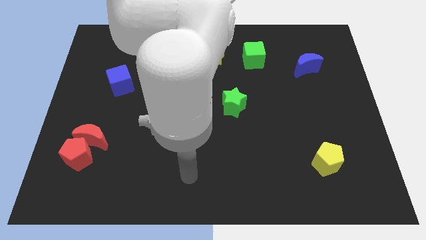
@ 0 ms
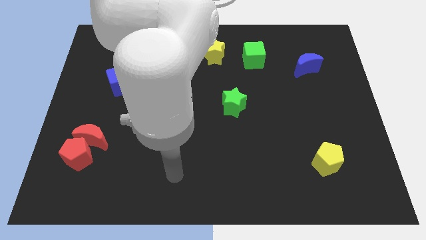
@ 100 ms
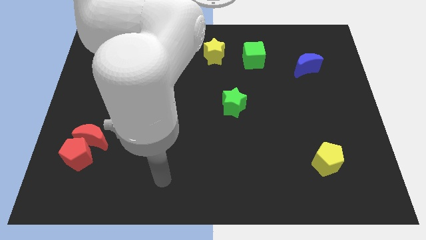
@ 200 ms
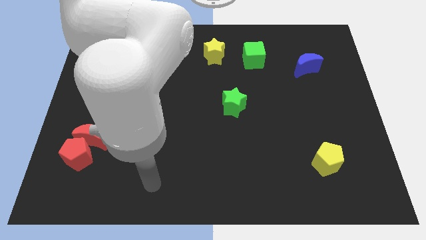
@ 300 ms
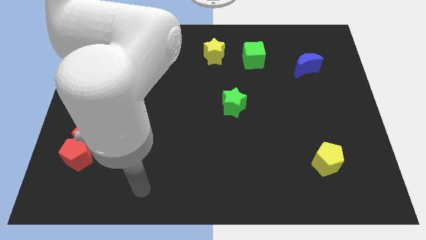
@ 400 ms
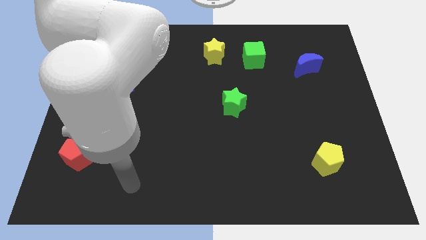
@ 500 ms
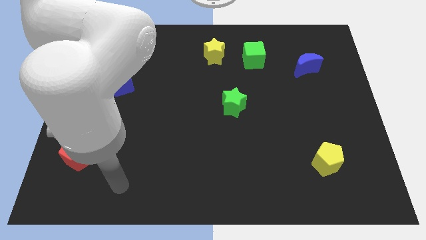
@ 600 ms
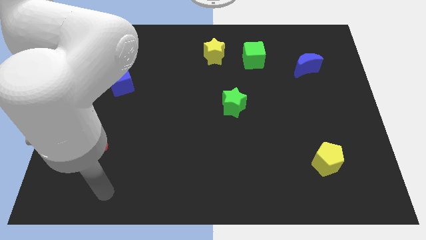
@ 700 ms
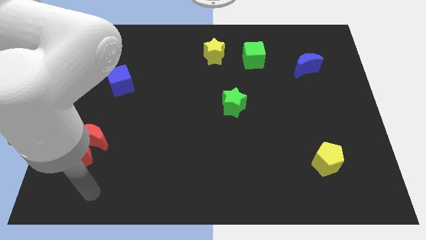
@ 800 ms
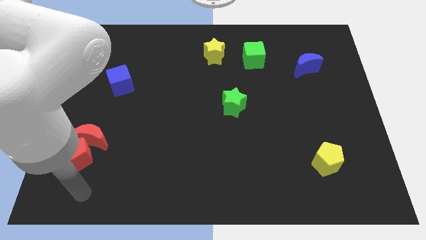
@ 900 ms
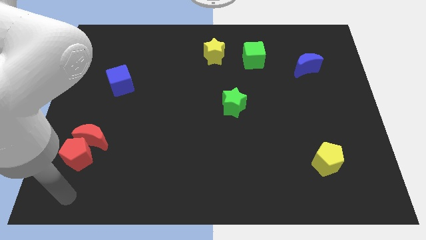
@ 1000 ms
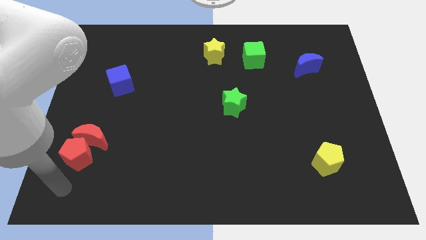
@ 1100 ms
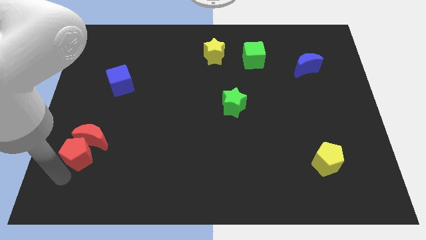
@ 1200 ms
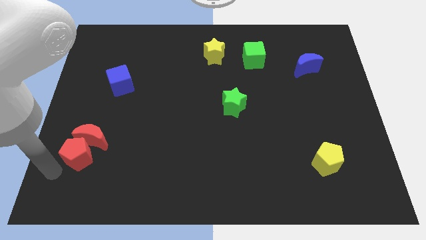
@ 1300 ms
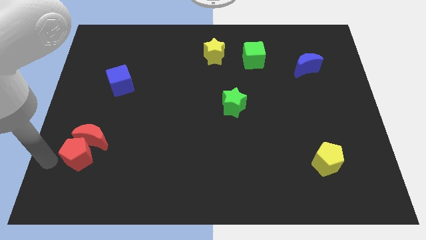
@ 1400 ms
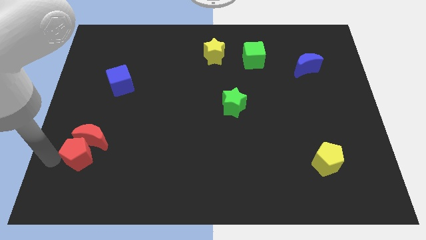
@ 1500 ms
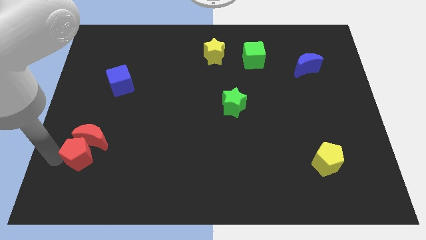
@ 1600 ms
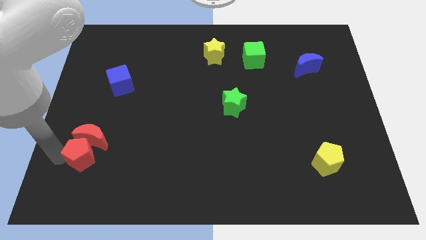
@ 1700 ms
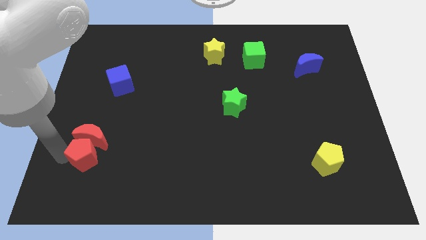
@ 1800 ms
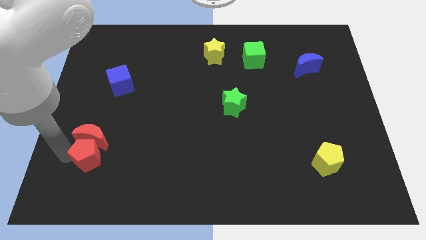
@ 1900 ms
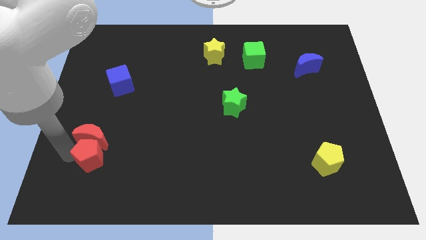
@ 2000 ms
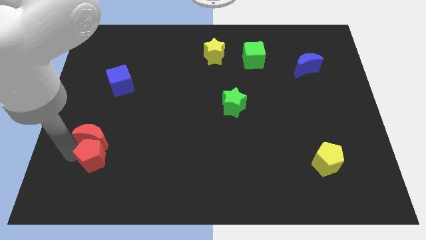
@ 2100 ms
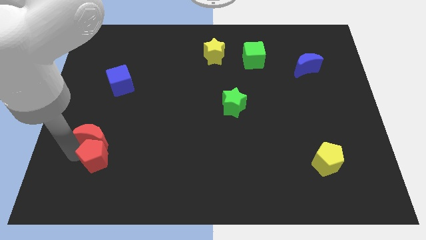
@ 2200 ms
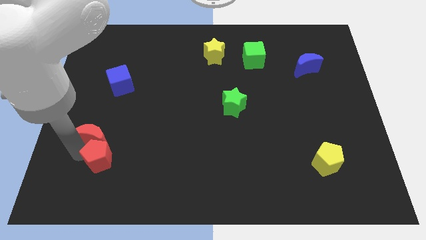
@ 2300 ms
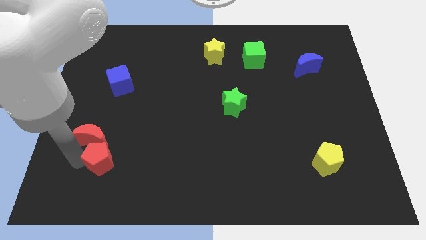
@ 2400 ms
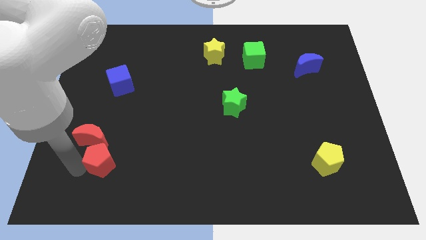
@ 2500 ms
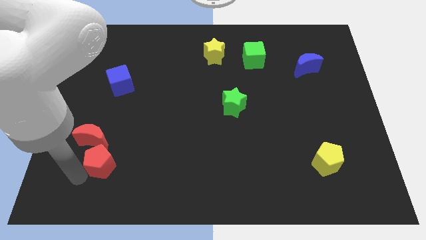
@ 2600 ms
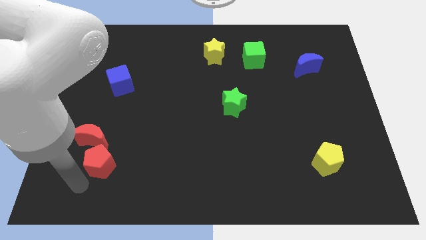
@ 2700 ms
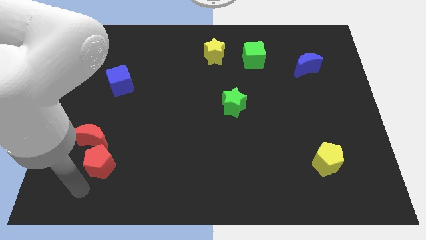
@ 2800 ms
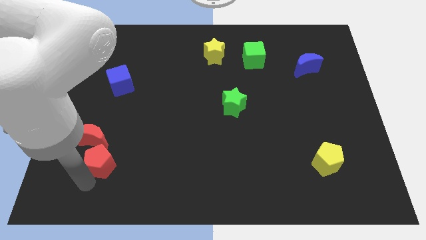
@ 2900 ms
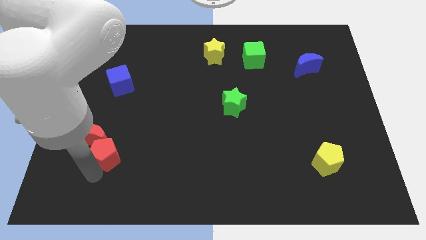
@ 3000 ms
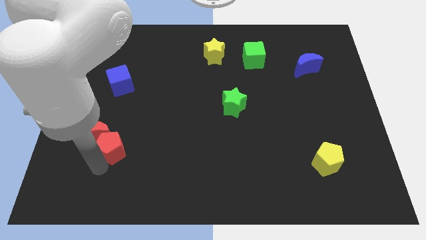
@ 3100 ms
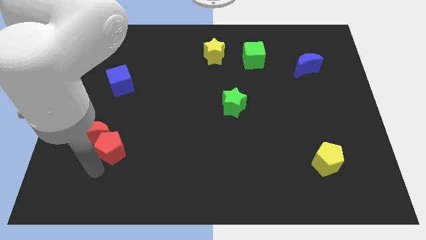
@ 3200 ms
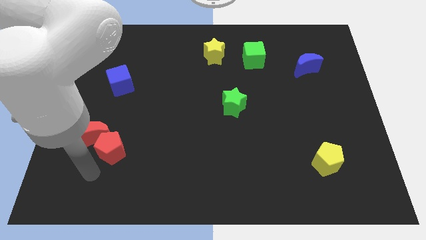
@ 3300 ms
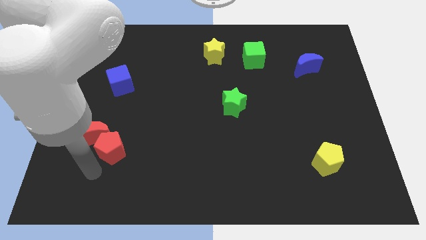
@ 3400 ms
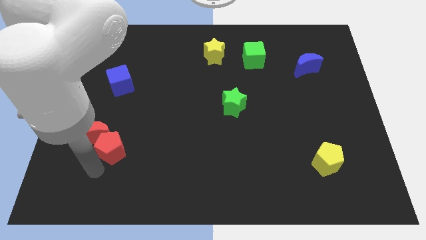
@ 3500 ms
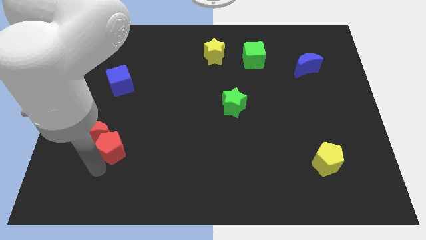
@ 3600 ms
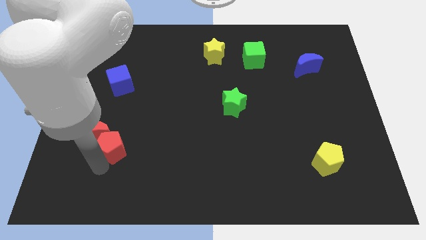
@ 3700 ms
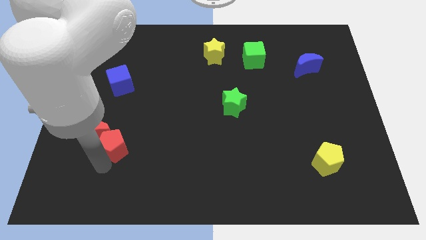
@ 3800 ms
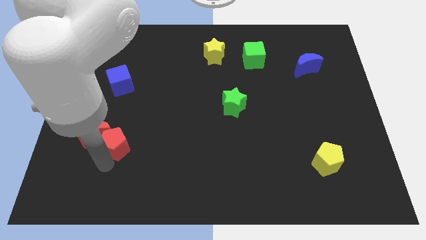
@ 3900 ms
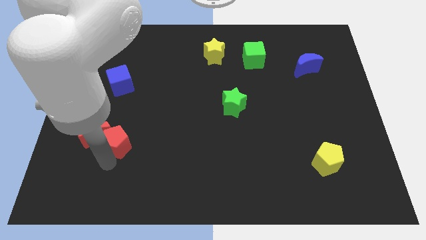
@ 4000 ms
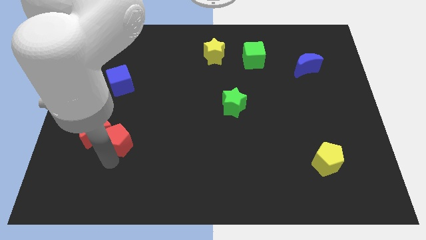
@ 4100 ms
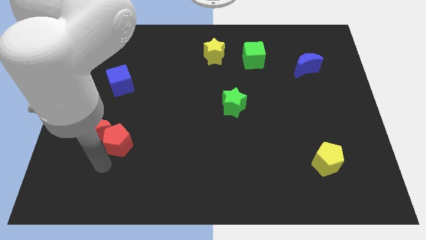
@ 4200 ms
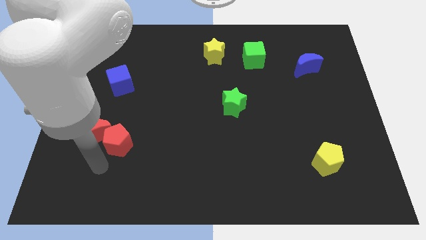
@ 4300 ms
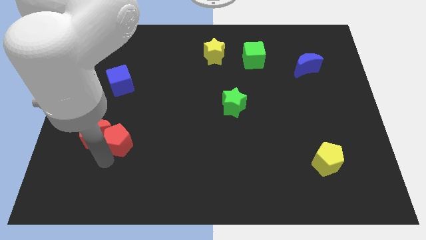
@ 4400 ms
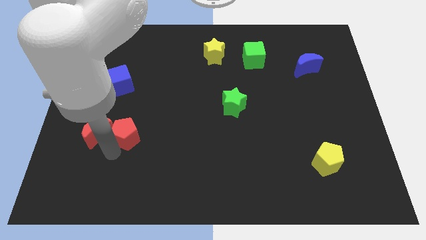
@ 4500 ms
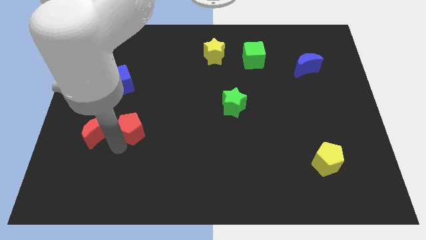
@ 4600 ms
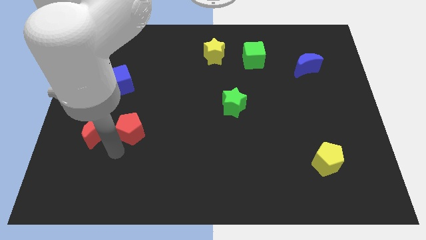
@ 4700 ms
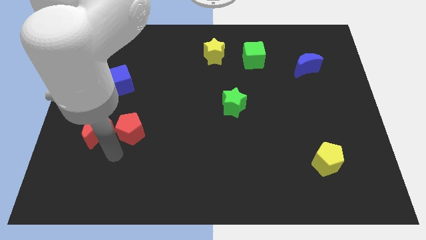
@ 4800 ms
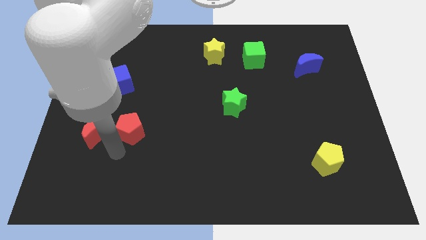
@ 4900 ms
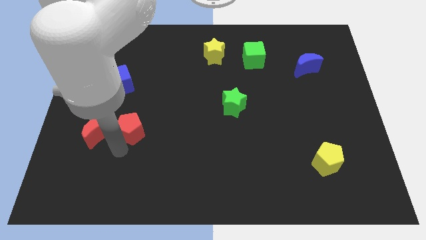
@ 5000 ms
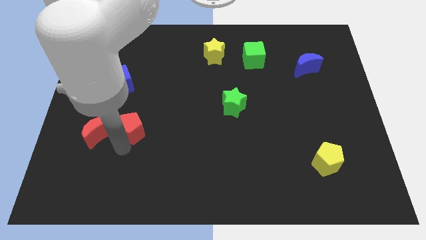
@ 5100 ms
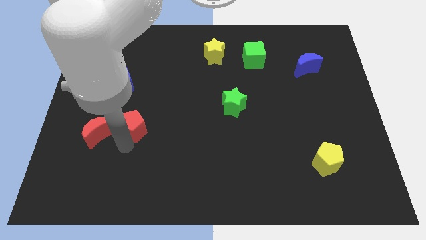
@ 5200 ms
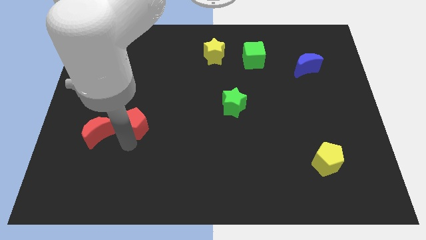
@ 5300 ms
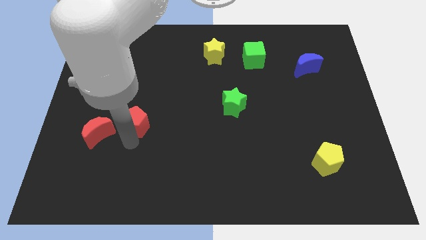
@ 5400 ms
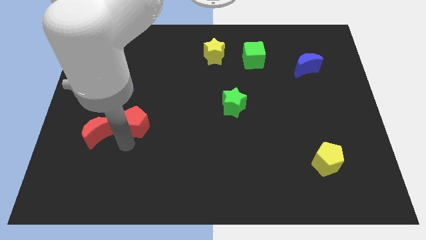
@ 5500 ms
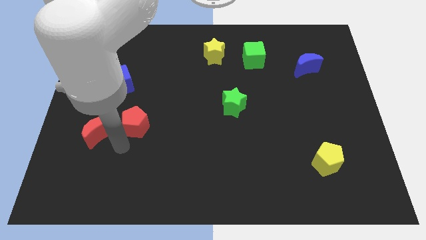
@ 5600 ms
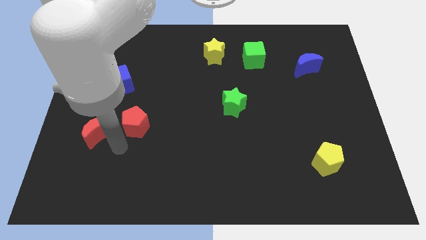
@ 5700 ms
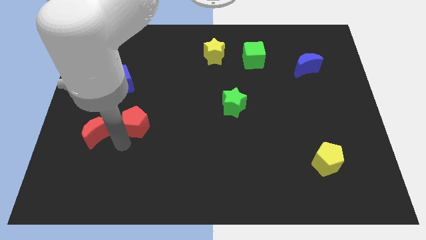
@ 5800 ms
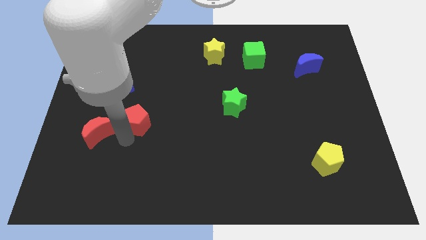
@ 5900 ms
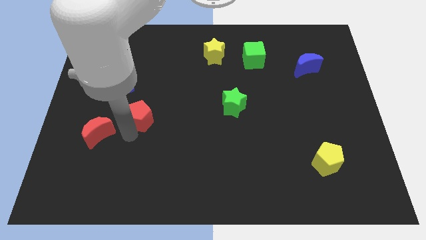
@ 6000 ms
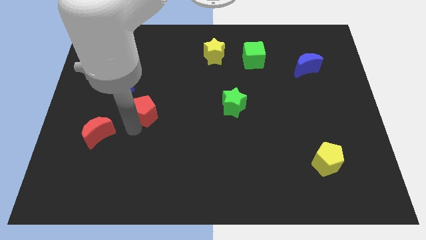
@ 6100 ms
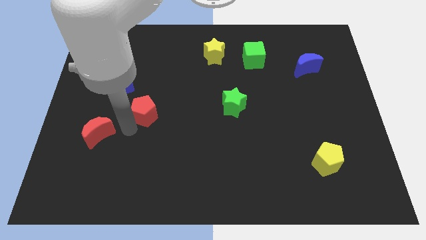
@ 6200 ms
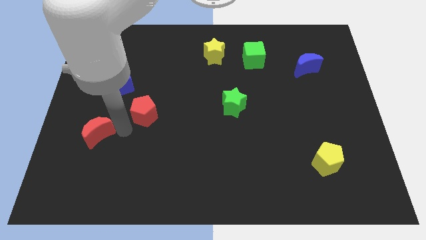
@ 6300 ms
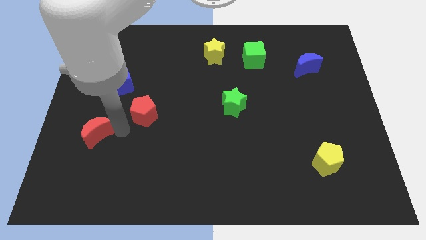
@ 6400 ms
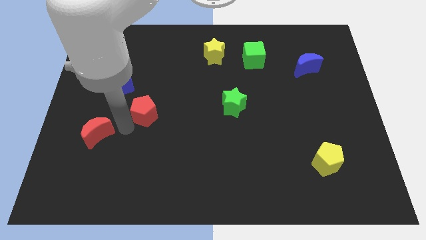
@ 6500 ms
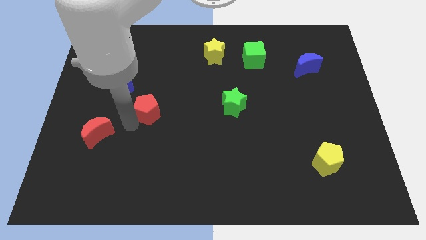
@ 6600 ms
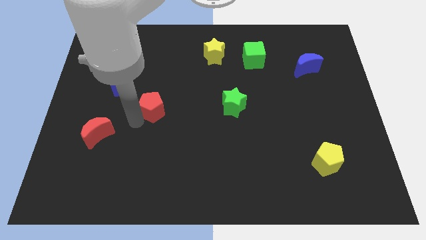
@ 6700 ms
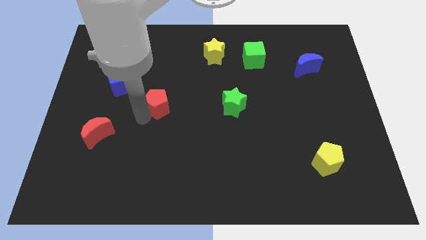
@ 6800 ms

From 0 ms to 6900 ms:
slide the red pentagon upwards and right diagonally

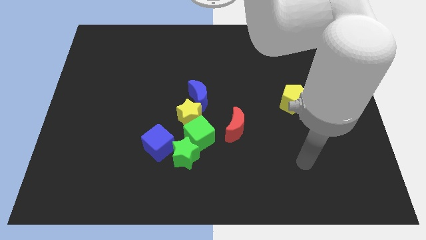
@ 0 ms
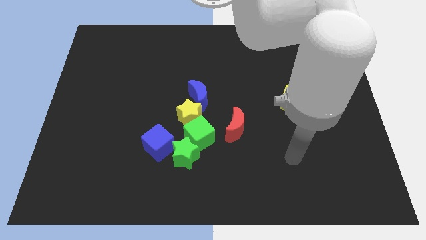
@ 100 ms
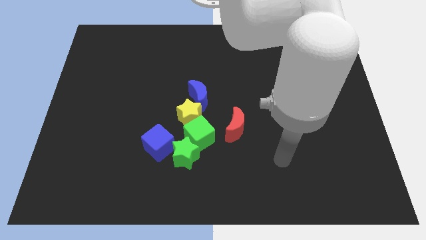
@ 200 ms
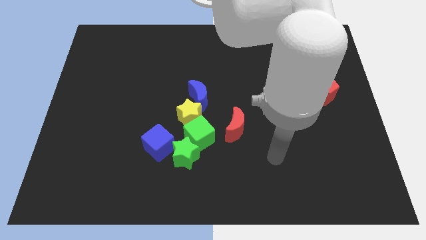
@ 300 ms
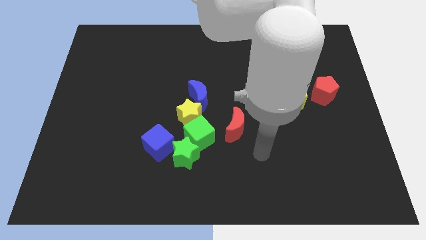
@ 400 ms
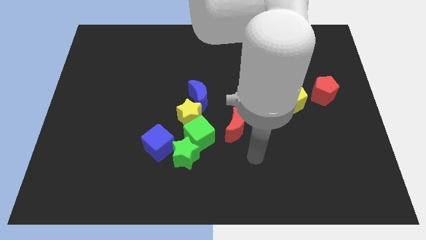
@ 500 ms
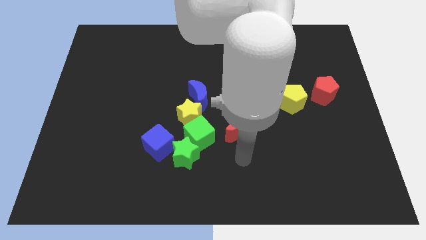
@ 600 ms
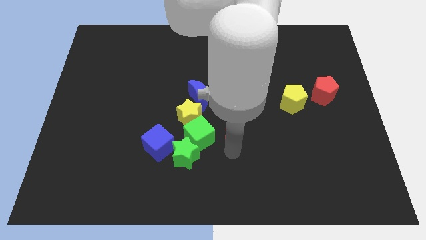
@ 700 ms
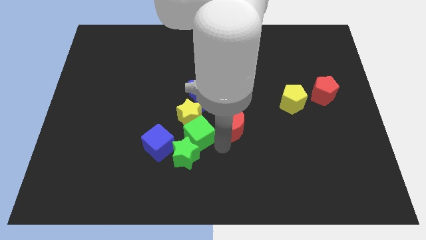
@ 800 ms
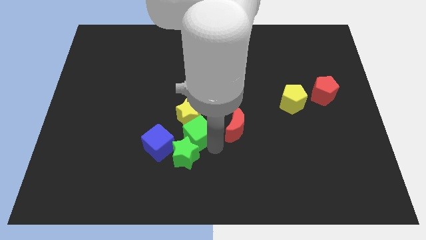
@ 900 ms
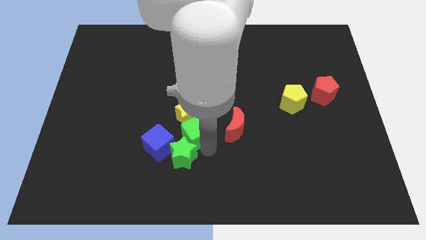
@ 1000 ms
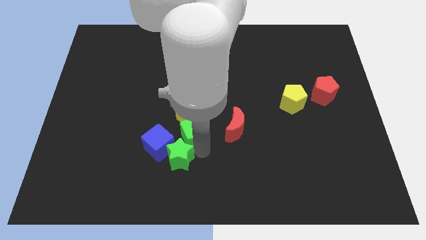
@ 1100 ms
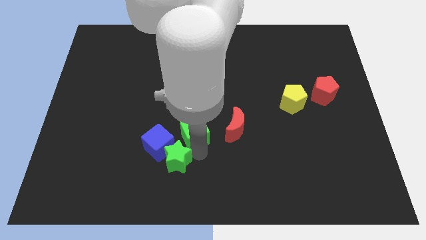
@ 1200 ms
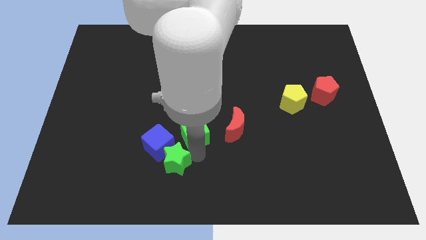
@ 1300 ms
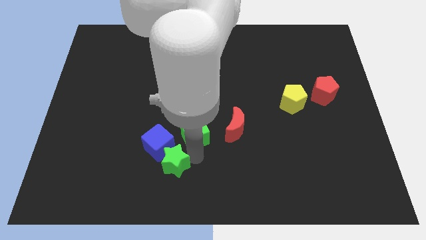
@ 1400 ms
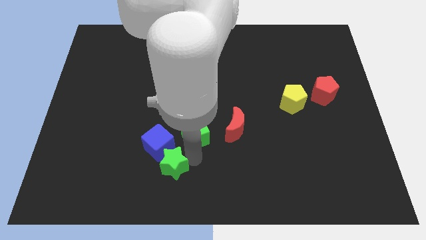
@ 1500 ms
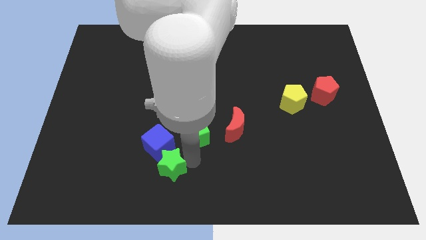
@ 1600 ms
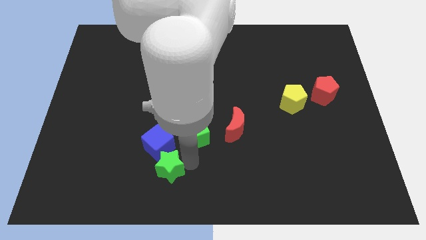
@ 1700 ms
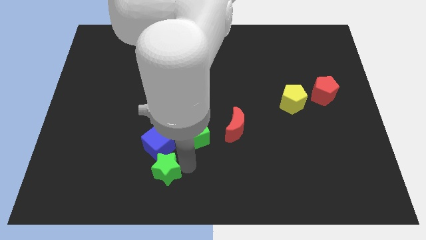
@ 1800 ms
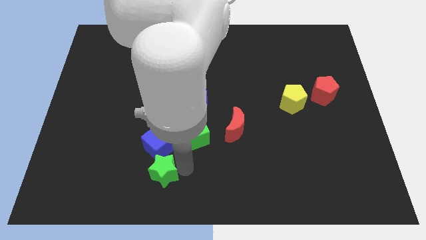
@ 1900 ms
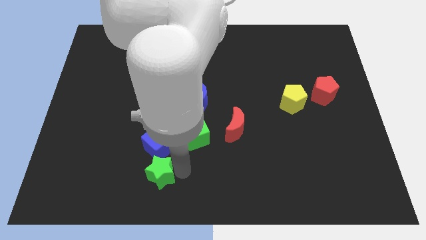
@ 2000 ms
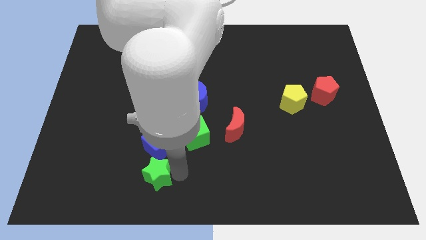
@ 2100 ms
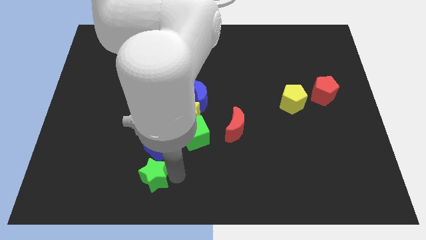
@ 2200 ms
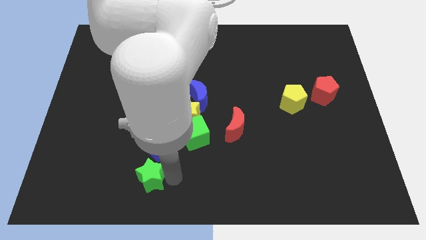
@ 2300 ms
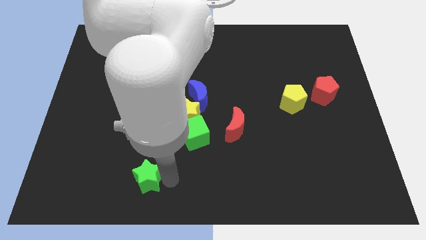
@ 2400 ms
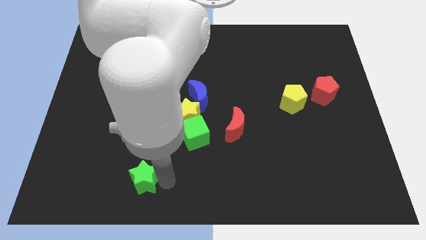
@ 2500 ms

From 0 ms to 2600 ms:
push the green star a little bit to the left
